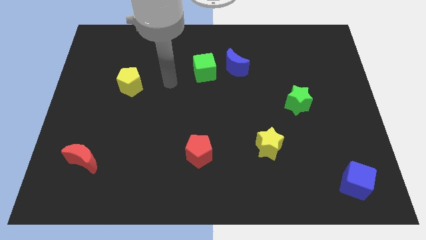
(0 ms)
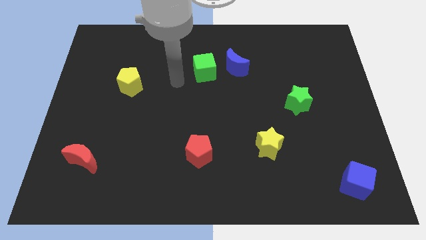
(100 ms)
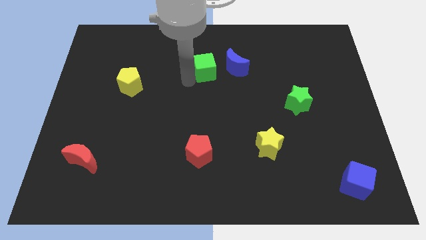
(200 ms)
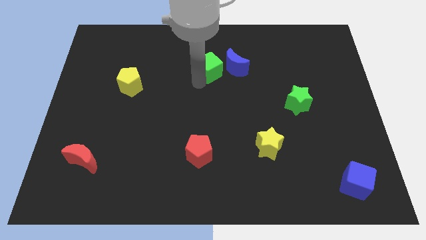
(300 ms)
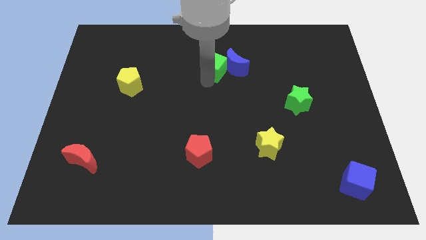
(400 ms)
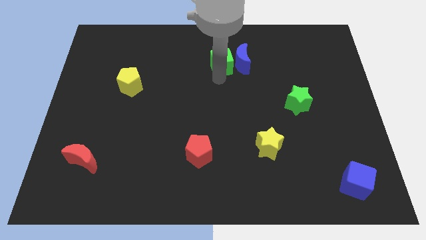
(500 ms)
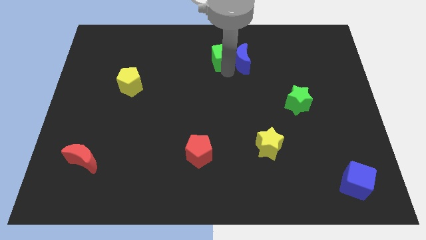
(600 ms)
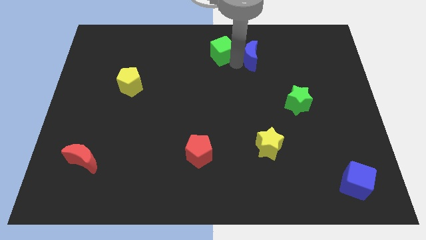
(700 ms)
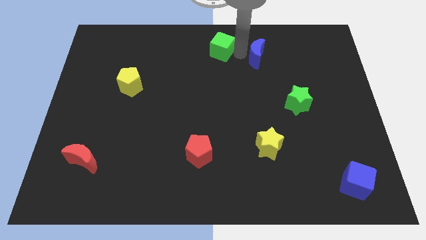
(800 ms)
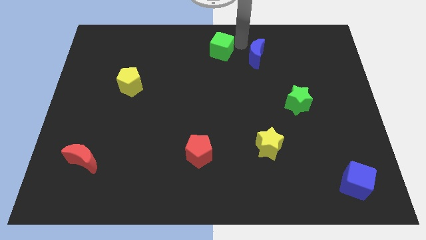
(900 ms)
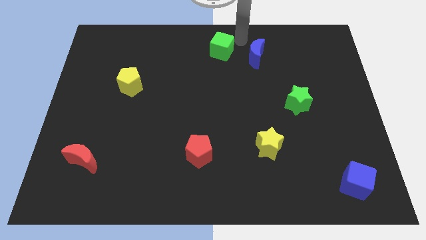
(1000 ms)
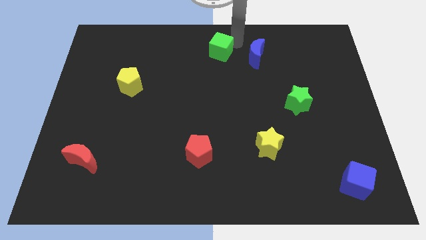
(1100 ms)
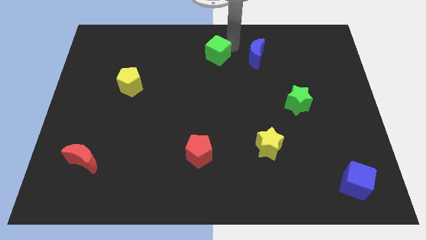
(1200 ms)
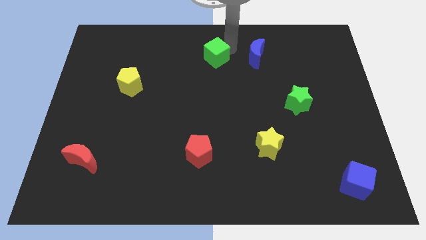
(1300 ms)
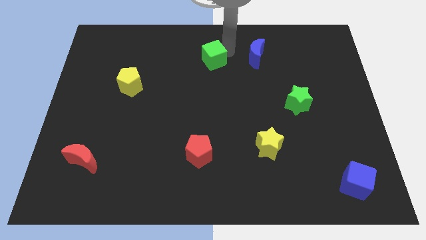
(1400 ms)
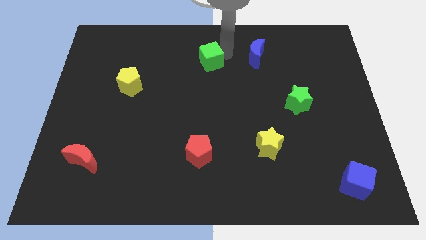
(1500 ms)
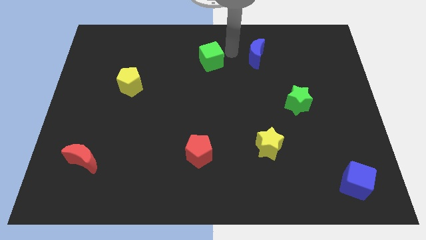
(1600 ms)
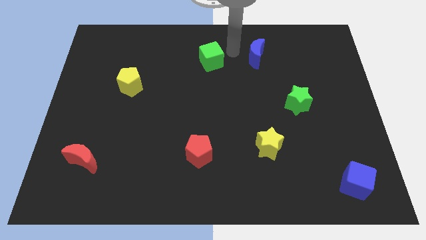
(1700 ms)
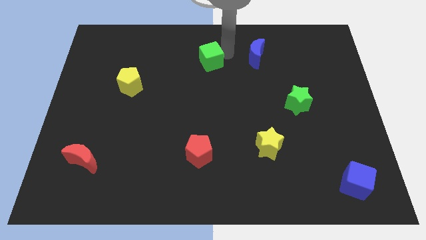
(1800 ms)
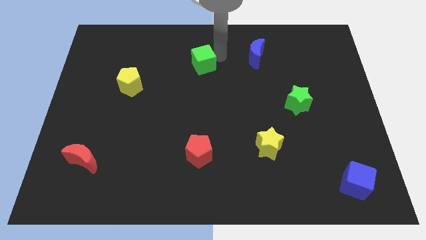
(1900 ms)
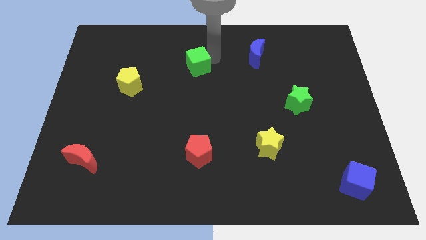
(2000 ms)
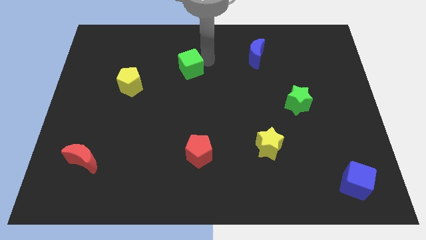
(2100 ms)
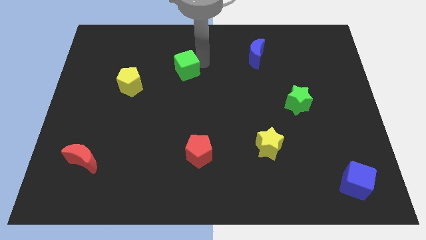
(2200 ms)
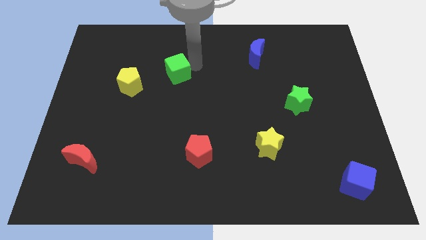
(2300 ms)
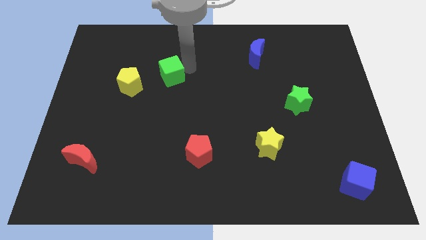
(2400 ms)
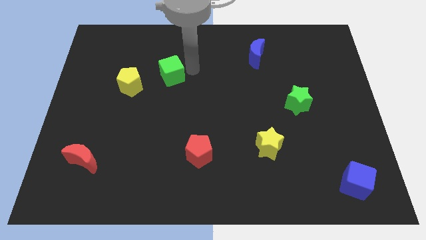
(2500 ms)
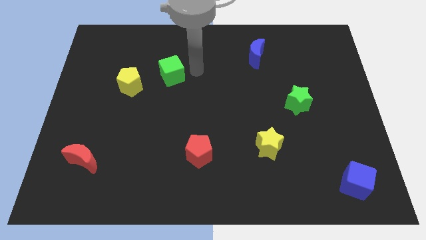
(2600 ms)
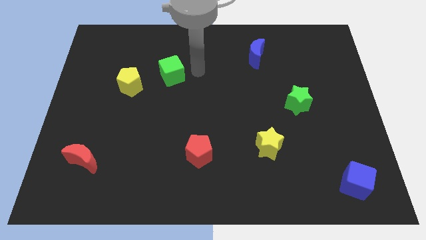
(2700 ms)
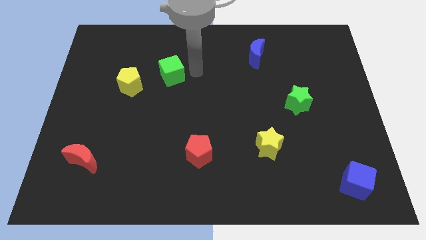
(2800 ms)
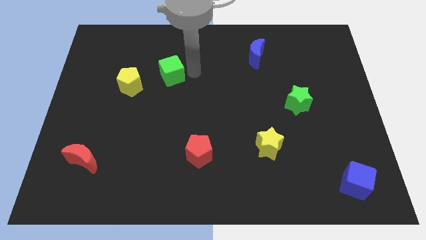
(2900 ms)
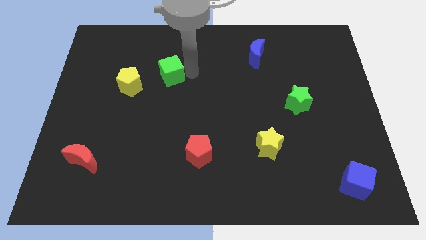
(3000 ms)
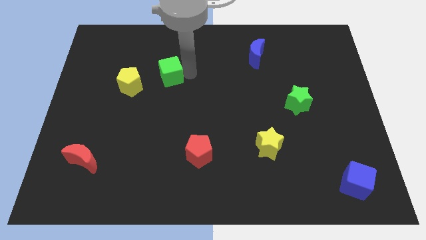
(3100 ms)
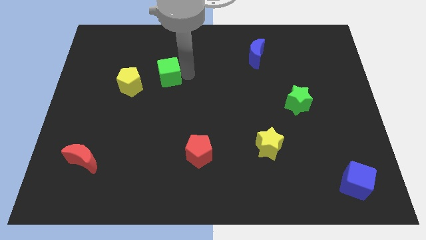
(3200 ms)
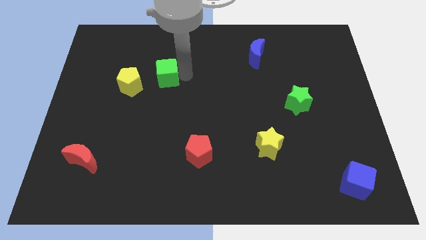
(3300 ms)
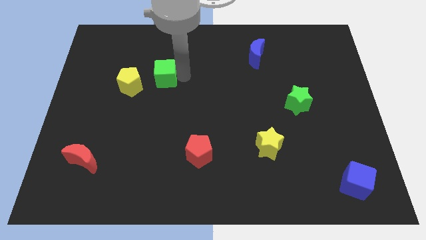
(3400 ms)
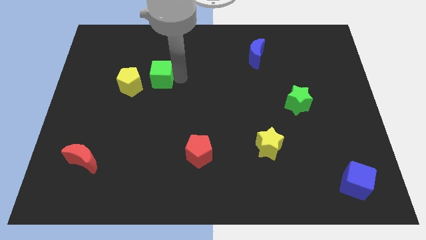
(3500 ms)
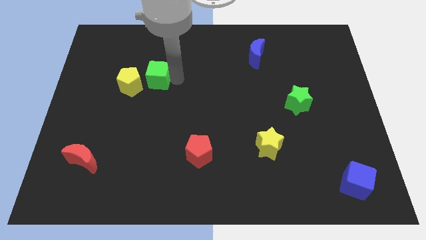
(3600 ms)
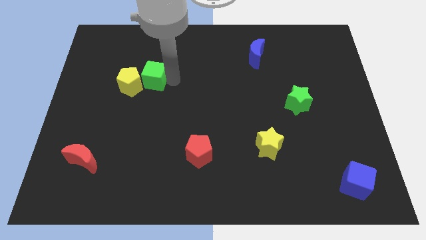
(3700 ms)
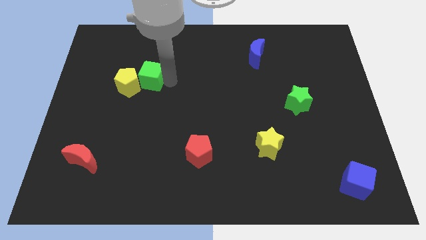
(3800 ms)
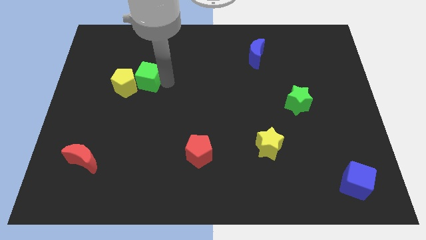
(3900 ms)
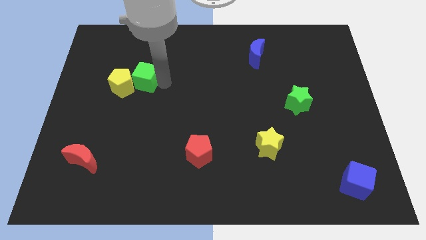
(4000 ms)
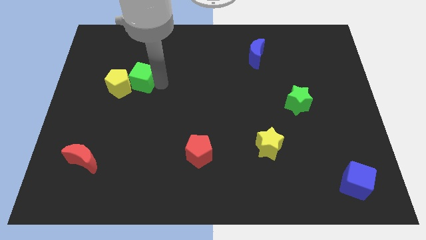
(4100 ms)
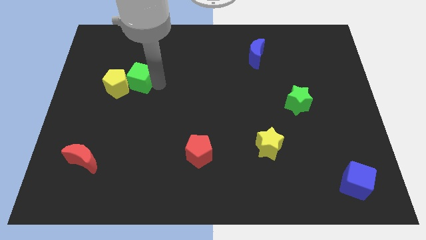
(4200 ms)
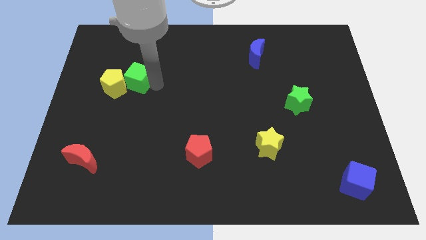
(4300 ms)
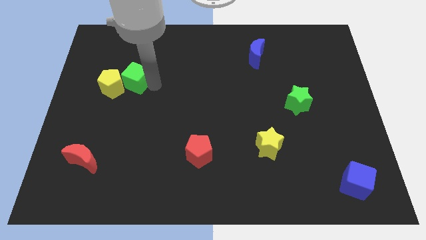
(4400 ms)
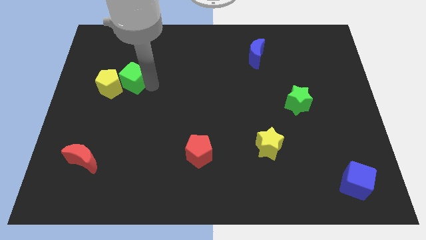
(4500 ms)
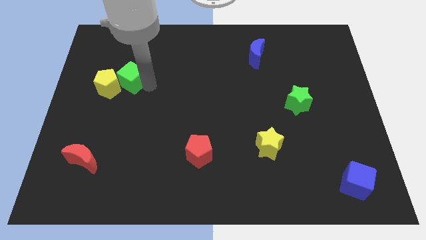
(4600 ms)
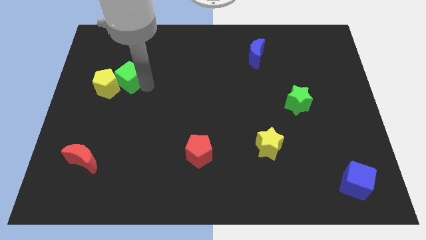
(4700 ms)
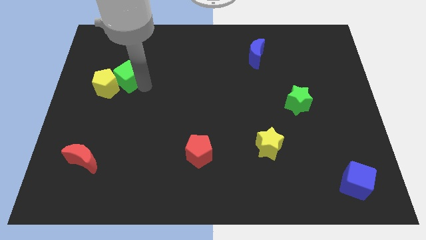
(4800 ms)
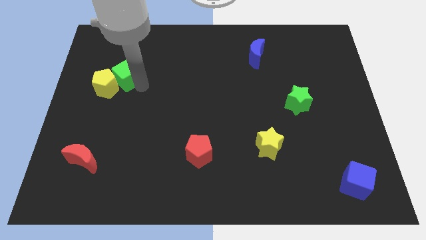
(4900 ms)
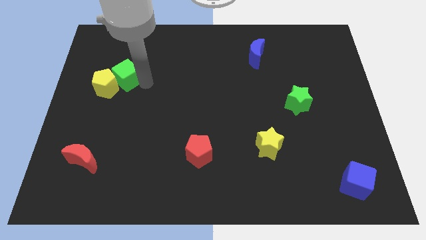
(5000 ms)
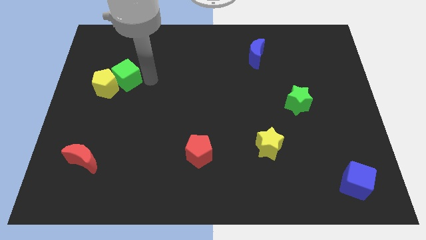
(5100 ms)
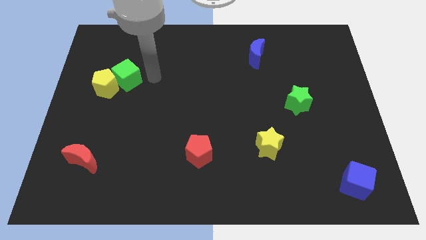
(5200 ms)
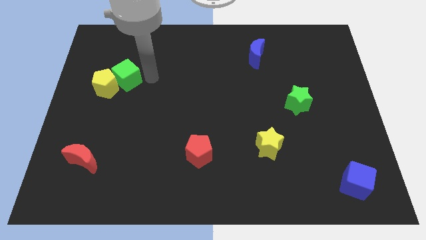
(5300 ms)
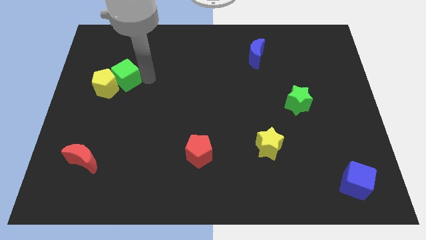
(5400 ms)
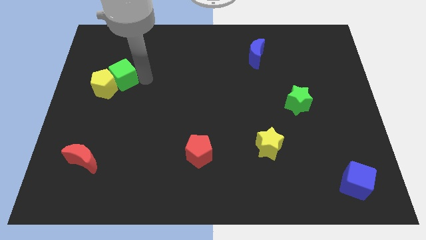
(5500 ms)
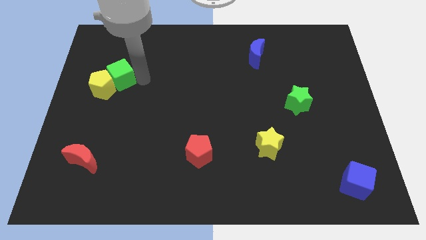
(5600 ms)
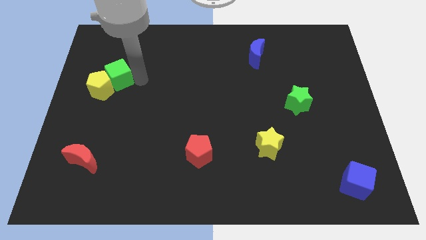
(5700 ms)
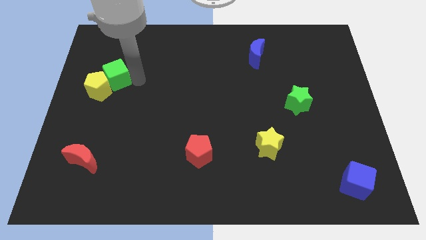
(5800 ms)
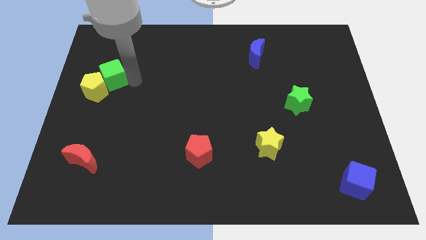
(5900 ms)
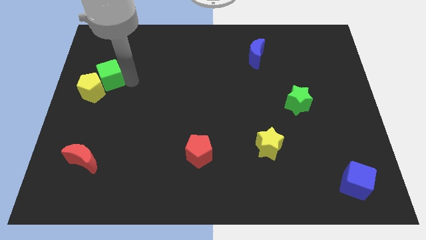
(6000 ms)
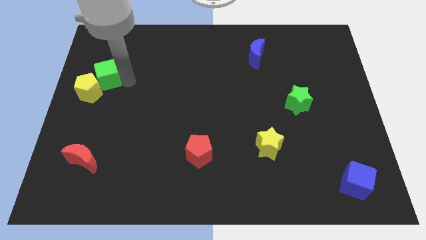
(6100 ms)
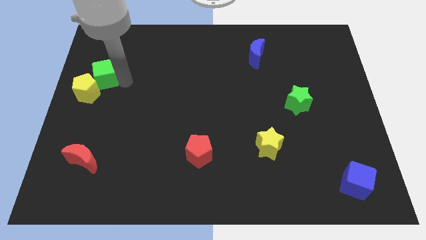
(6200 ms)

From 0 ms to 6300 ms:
put the green cube to the left side of the board

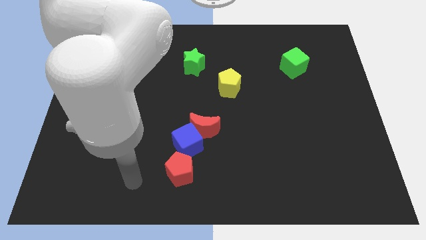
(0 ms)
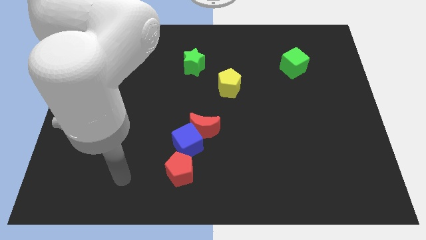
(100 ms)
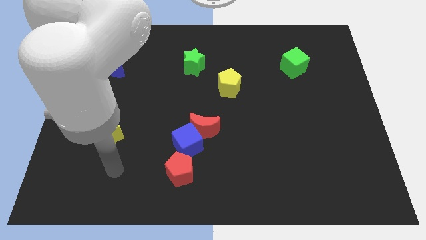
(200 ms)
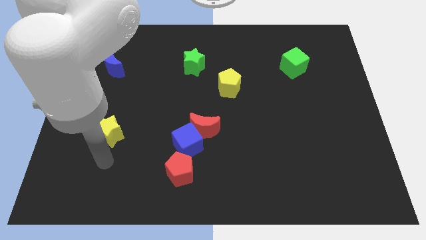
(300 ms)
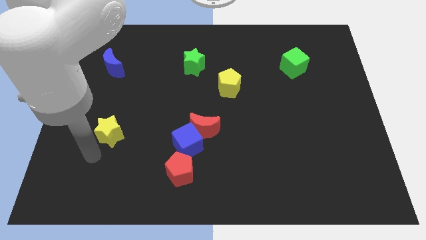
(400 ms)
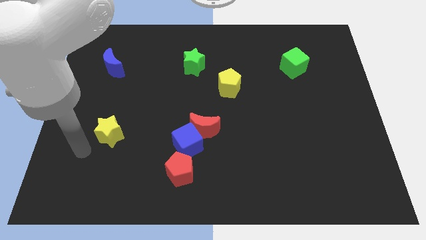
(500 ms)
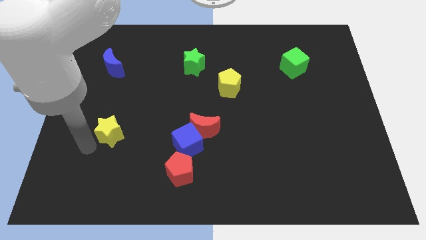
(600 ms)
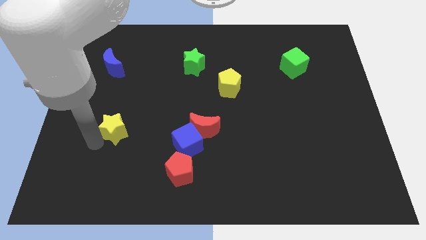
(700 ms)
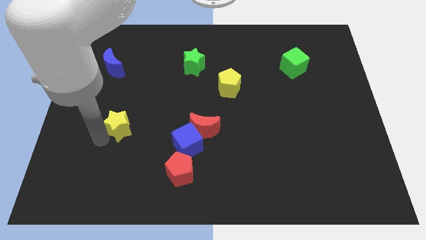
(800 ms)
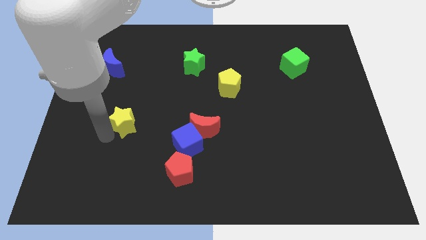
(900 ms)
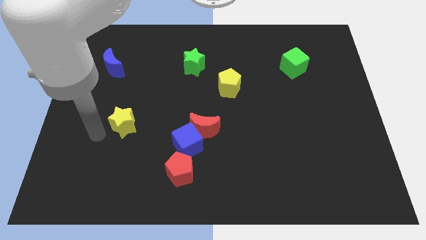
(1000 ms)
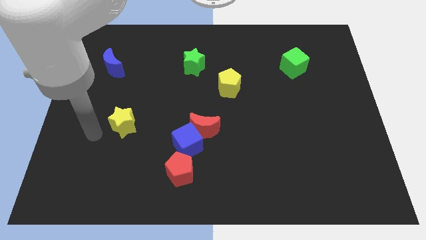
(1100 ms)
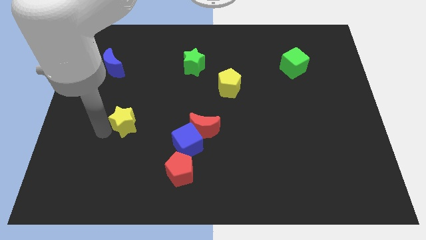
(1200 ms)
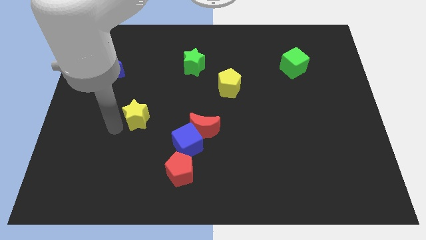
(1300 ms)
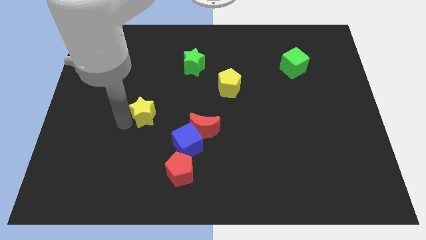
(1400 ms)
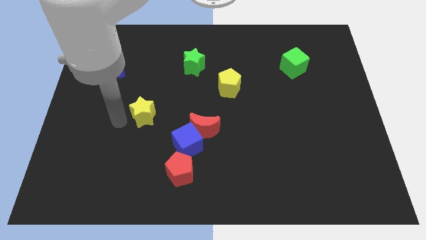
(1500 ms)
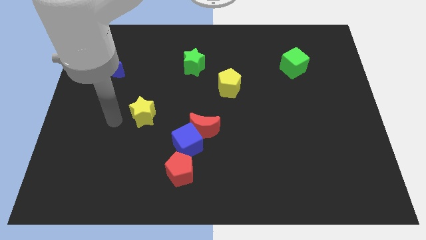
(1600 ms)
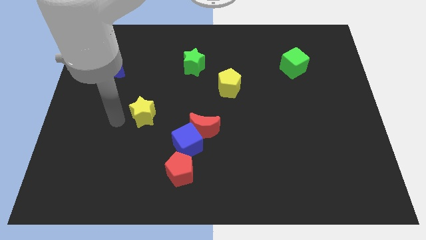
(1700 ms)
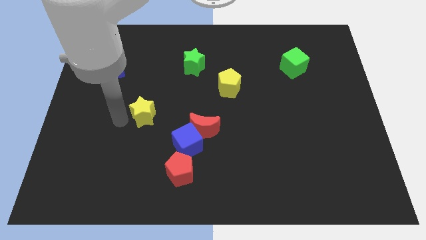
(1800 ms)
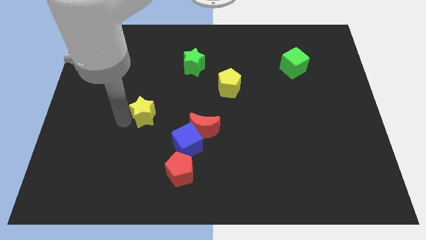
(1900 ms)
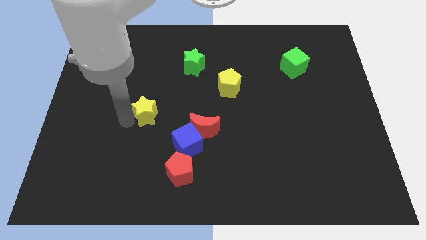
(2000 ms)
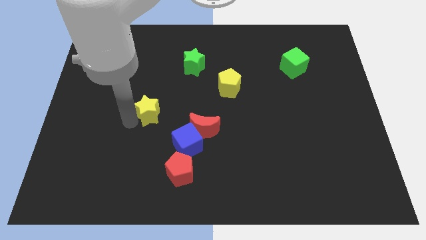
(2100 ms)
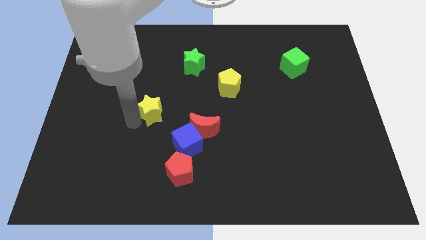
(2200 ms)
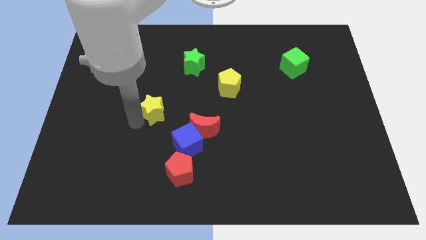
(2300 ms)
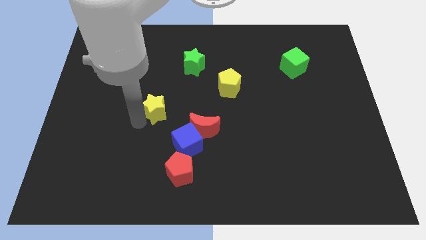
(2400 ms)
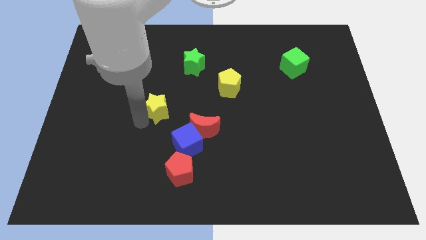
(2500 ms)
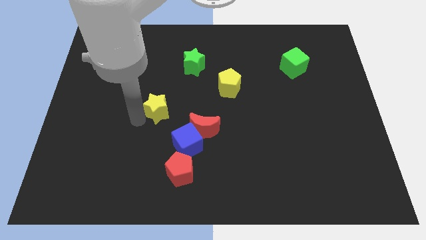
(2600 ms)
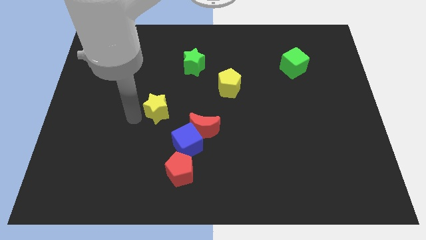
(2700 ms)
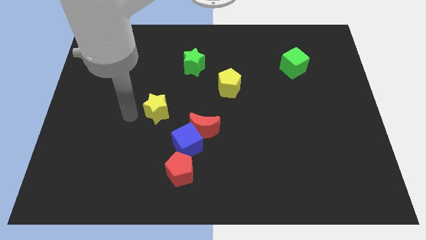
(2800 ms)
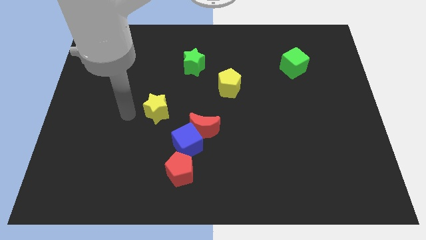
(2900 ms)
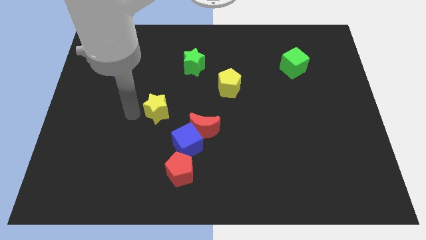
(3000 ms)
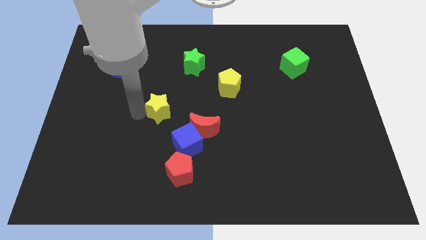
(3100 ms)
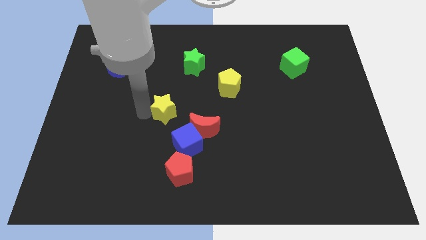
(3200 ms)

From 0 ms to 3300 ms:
push the yellow star to the middle
